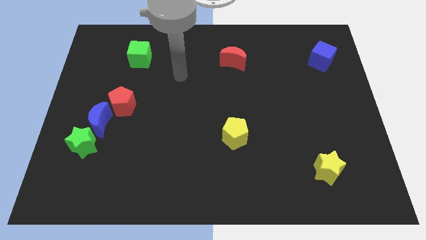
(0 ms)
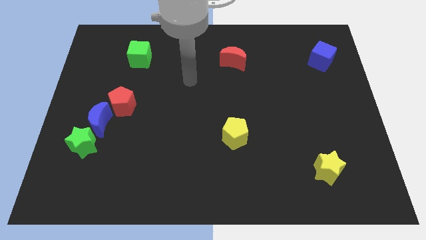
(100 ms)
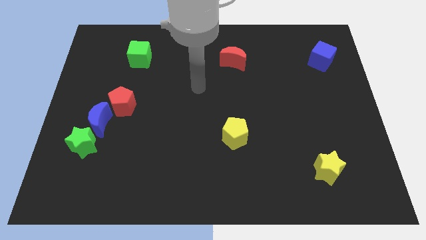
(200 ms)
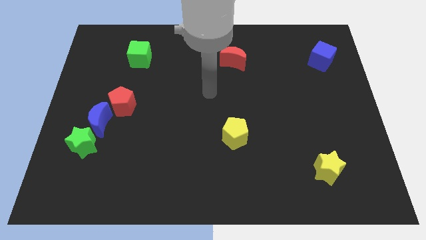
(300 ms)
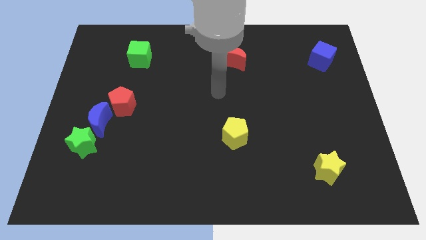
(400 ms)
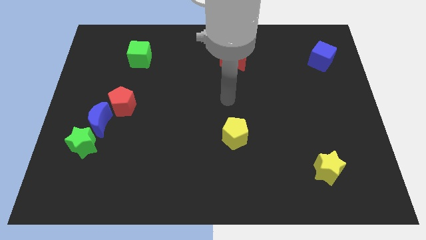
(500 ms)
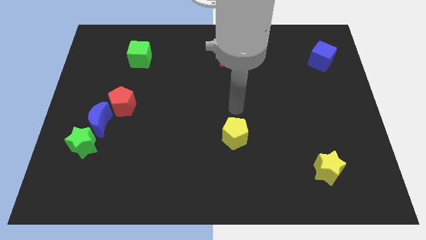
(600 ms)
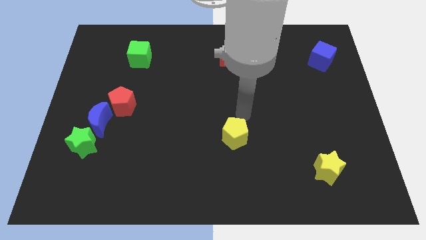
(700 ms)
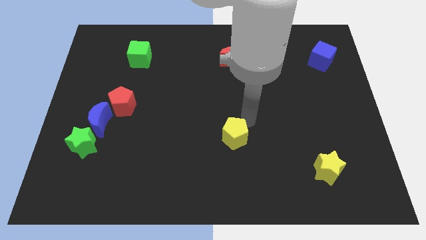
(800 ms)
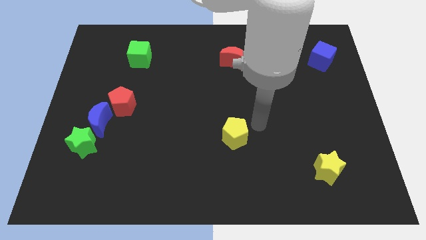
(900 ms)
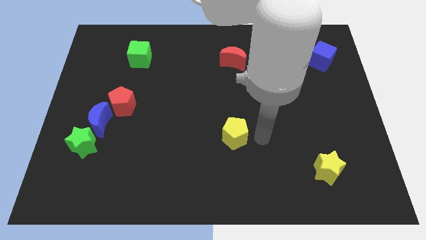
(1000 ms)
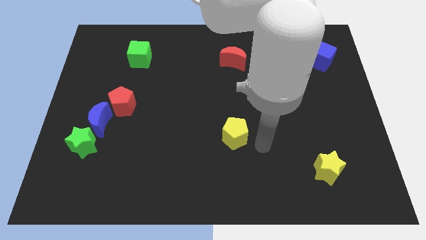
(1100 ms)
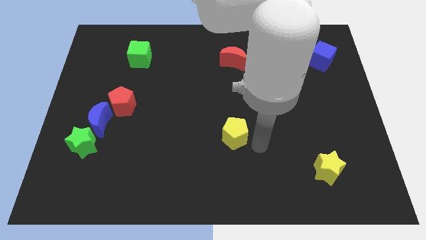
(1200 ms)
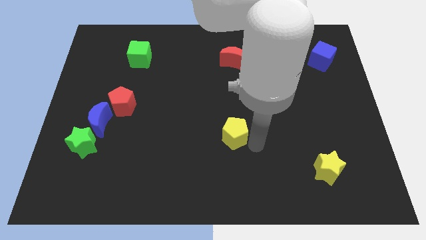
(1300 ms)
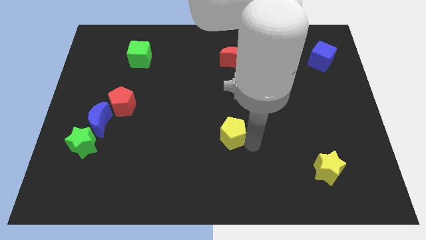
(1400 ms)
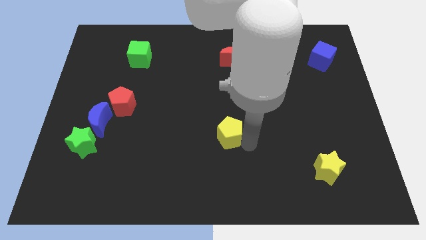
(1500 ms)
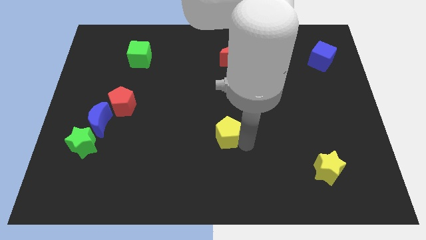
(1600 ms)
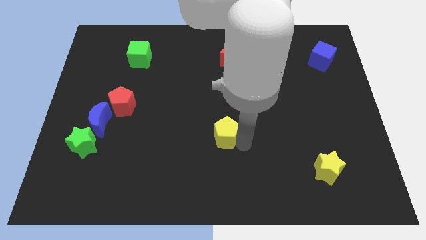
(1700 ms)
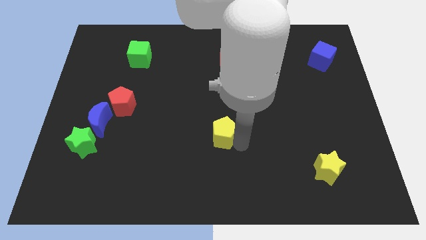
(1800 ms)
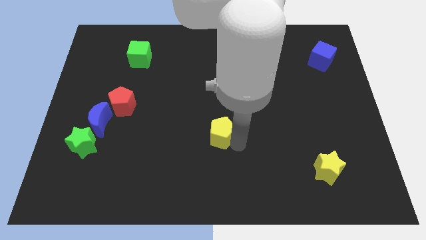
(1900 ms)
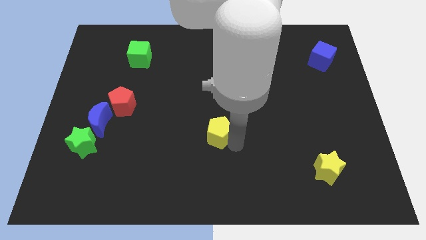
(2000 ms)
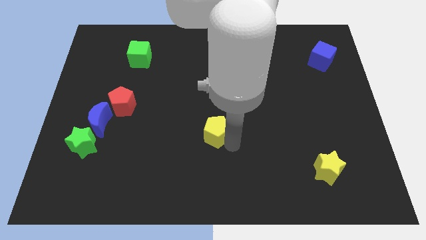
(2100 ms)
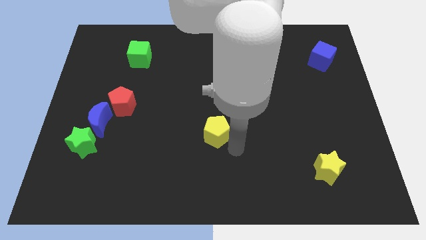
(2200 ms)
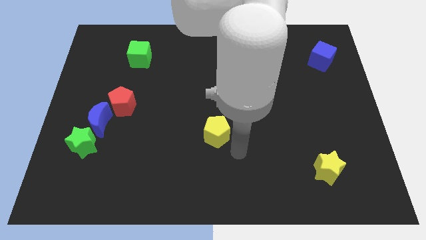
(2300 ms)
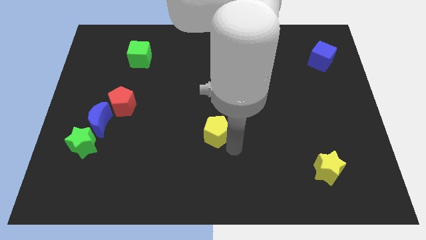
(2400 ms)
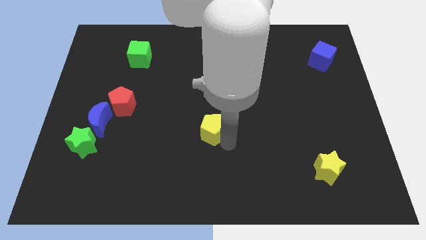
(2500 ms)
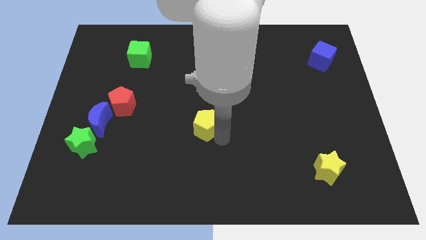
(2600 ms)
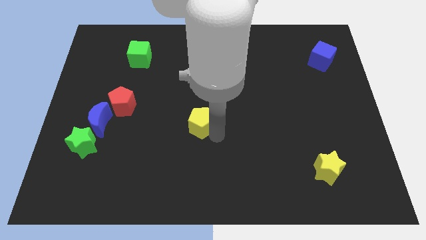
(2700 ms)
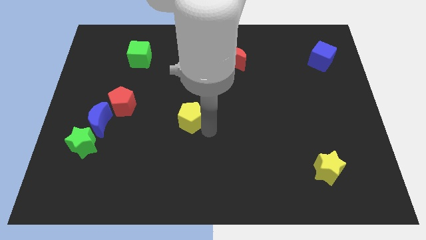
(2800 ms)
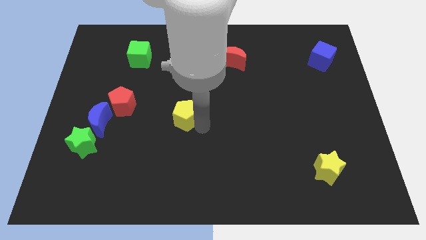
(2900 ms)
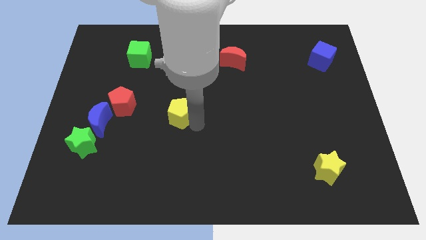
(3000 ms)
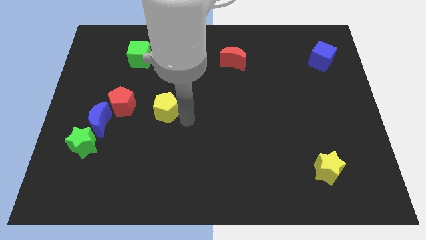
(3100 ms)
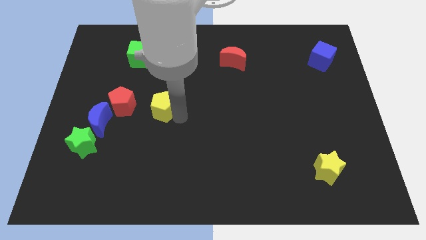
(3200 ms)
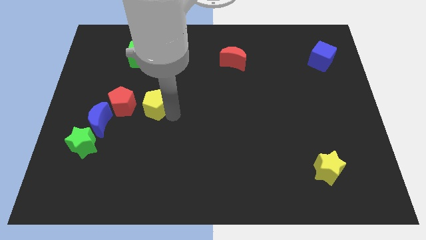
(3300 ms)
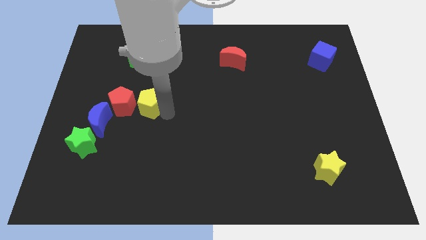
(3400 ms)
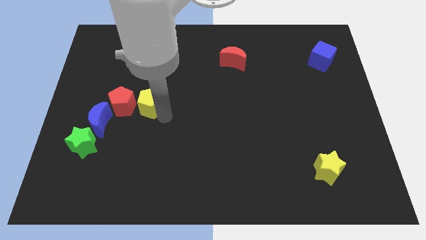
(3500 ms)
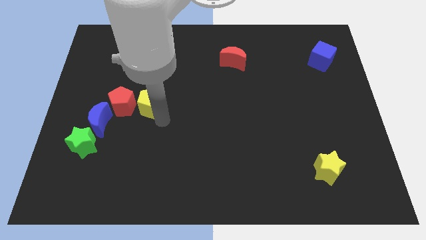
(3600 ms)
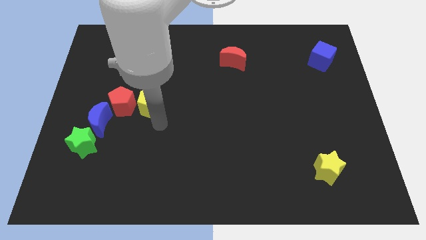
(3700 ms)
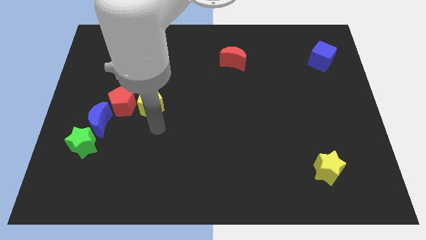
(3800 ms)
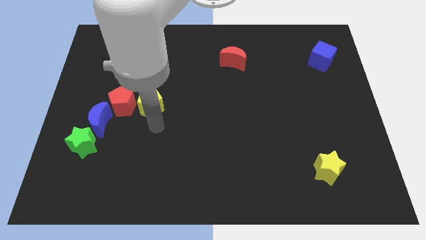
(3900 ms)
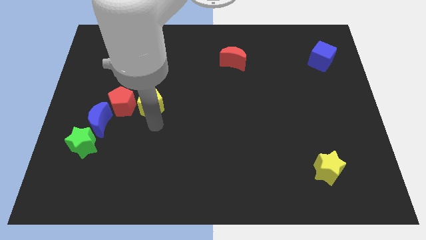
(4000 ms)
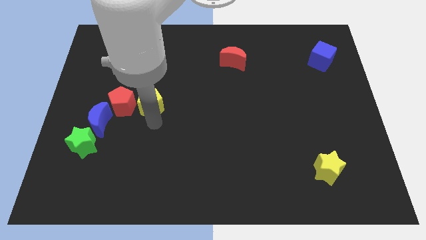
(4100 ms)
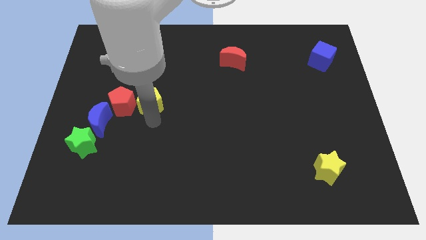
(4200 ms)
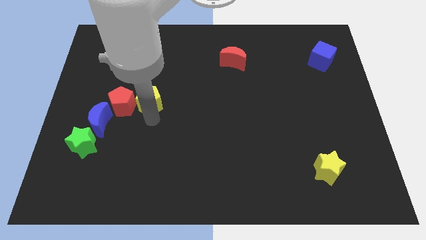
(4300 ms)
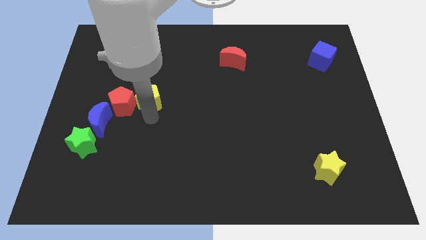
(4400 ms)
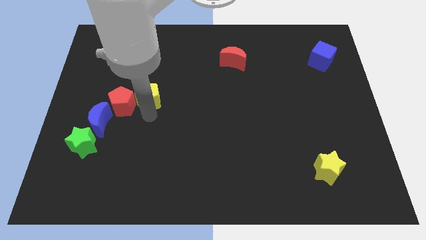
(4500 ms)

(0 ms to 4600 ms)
push the yellow pentagon below the green cube

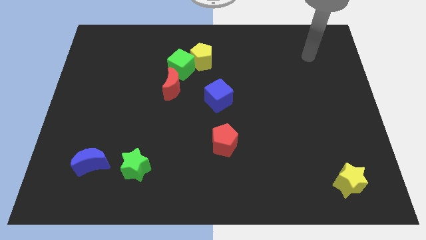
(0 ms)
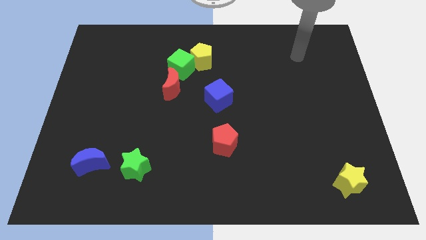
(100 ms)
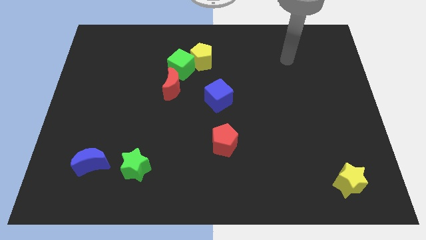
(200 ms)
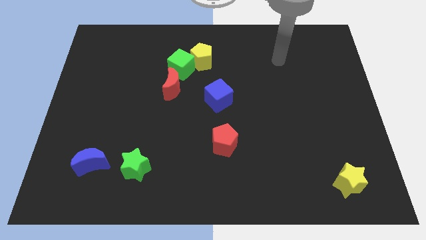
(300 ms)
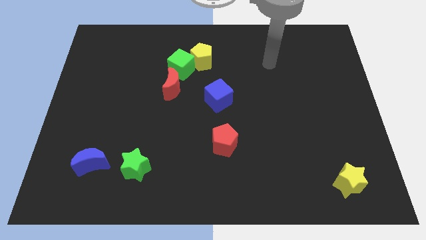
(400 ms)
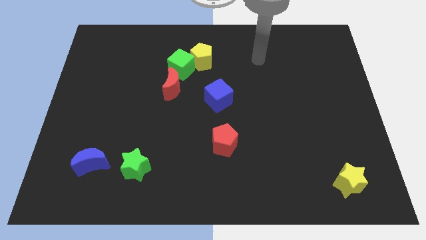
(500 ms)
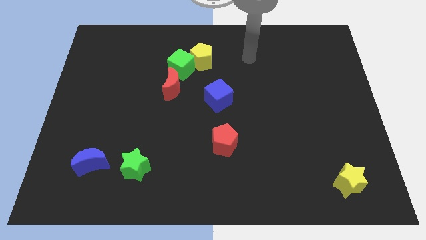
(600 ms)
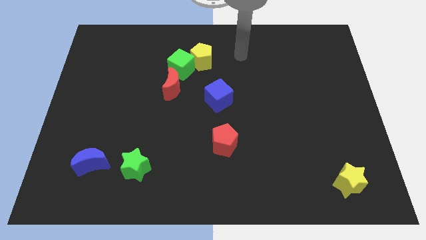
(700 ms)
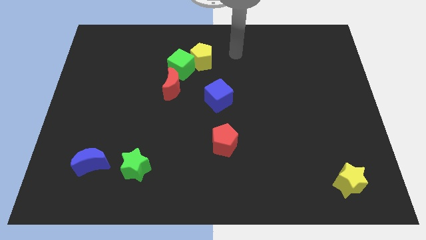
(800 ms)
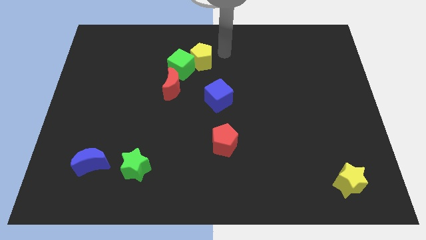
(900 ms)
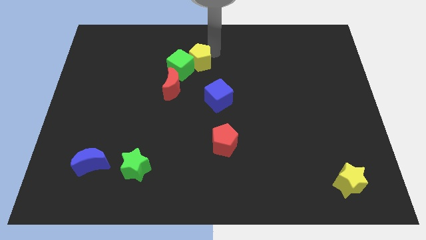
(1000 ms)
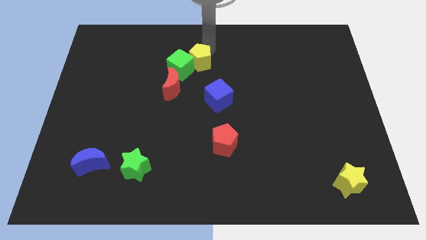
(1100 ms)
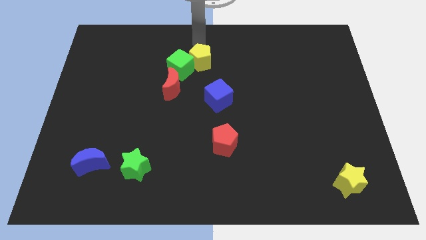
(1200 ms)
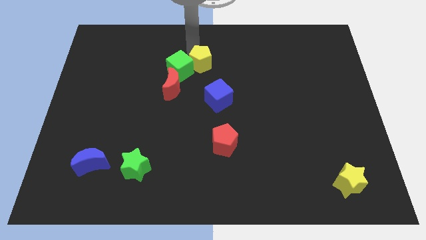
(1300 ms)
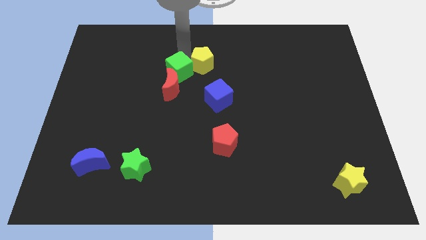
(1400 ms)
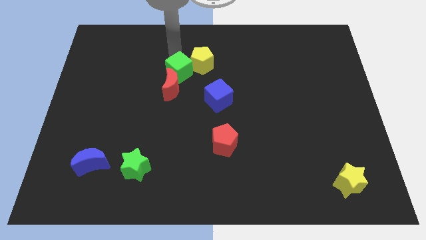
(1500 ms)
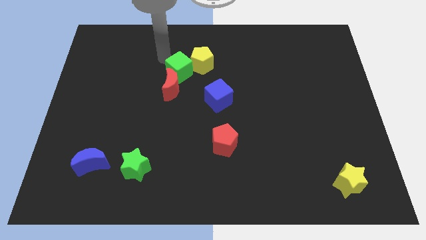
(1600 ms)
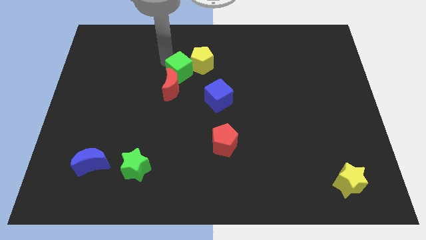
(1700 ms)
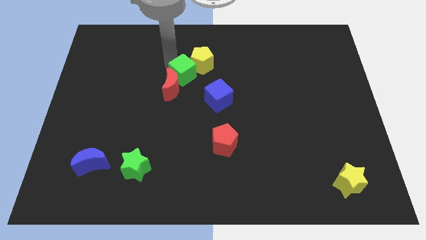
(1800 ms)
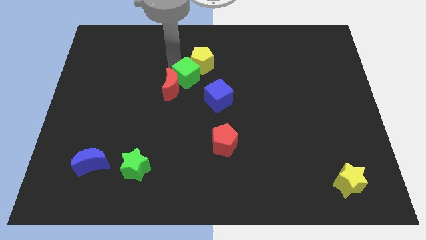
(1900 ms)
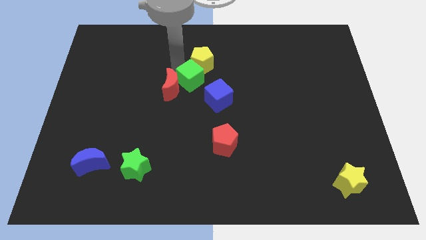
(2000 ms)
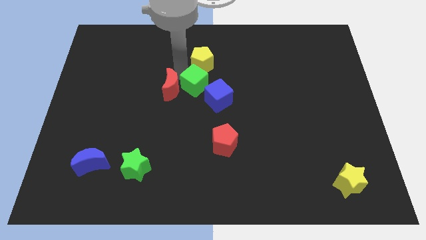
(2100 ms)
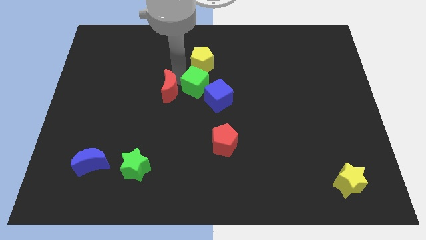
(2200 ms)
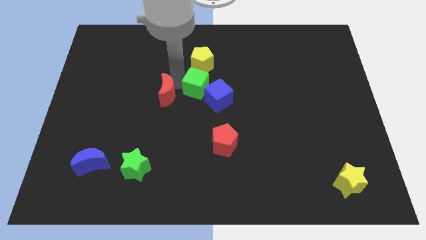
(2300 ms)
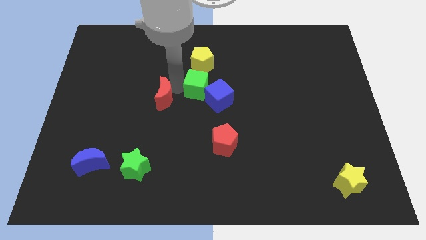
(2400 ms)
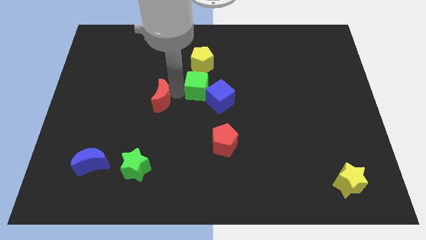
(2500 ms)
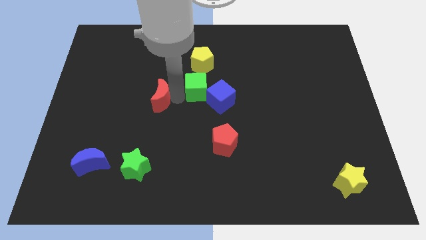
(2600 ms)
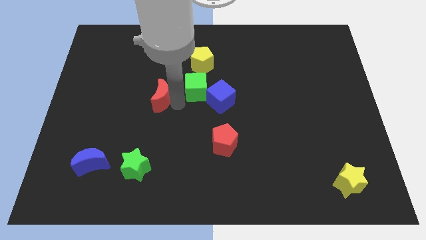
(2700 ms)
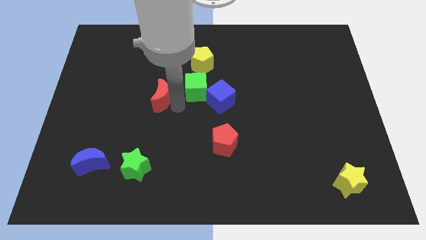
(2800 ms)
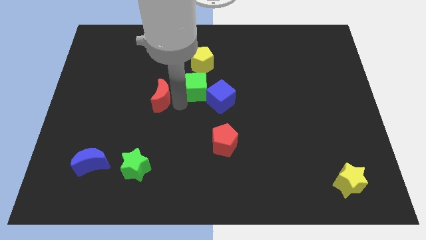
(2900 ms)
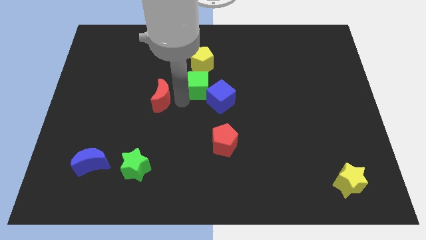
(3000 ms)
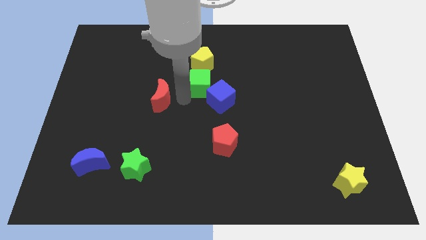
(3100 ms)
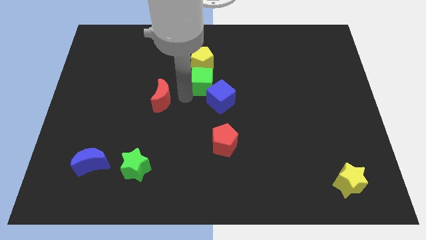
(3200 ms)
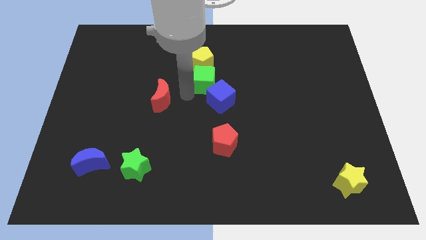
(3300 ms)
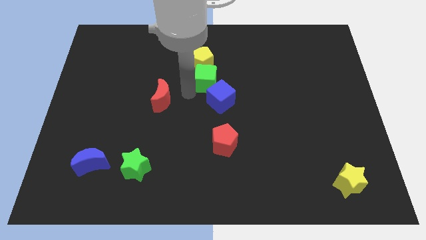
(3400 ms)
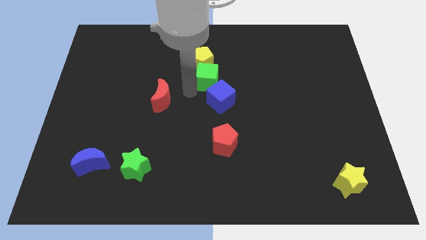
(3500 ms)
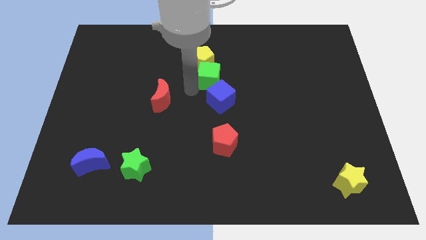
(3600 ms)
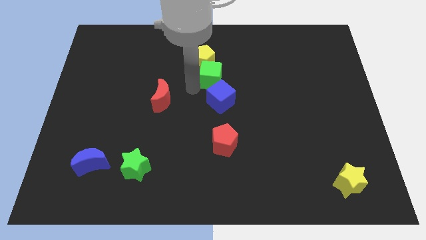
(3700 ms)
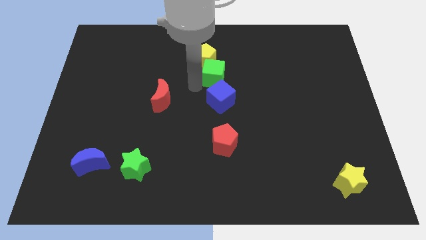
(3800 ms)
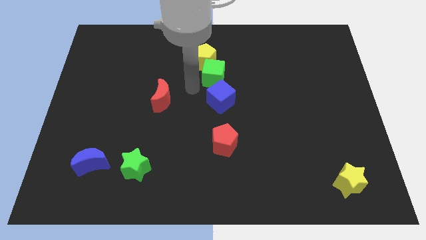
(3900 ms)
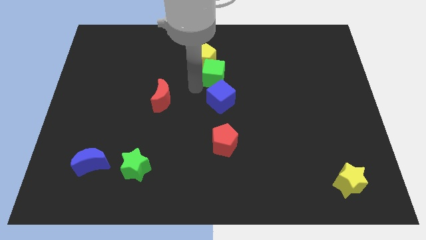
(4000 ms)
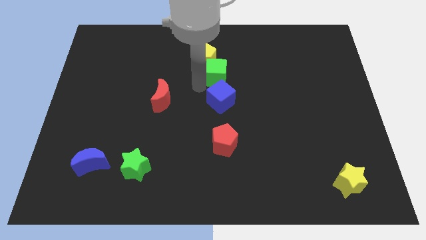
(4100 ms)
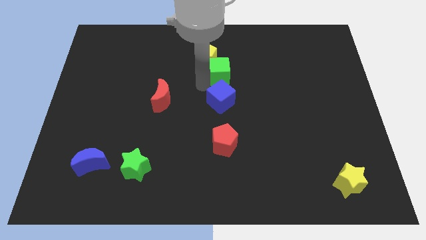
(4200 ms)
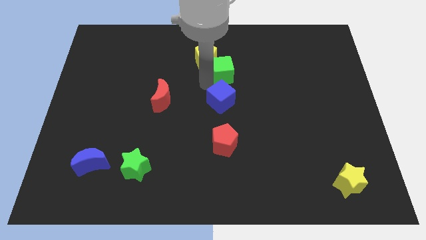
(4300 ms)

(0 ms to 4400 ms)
slide the green cube to the right side of the yellow pentagon
